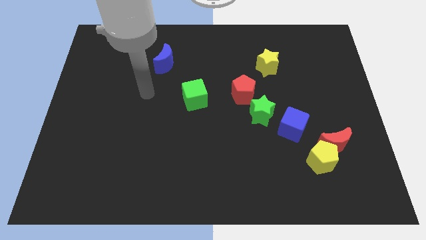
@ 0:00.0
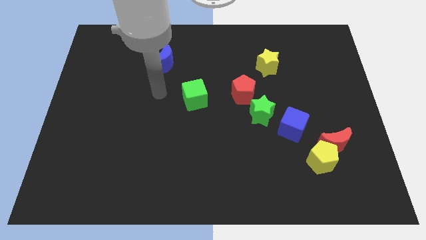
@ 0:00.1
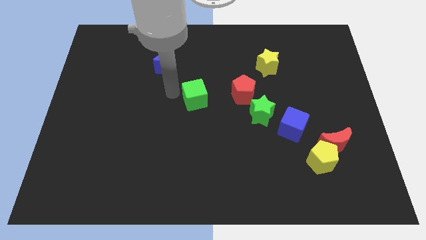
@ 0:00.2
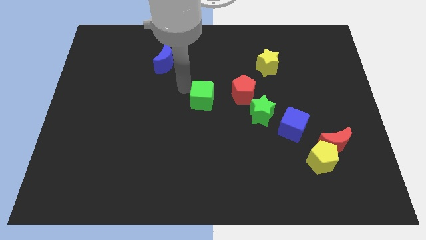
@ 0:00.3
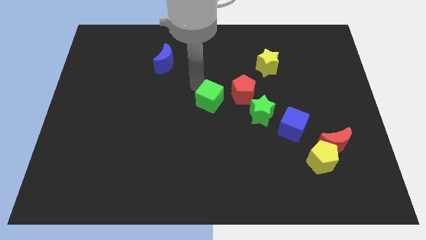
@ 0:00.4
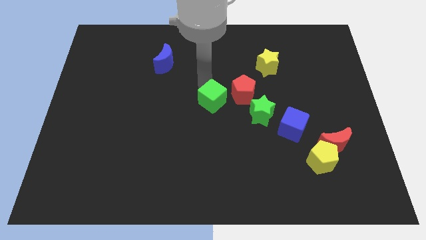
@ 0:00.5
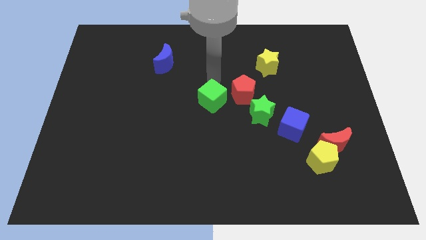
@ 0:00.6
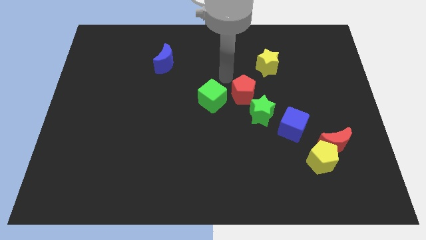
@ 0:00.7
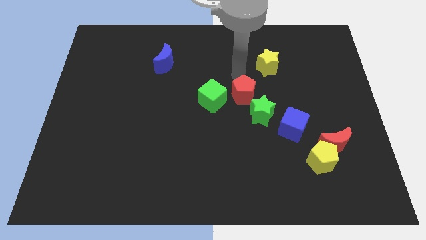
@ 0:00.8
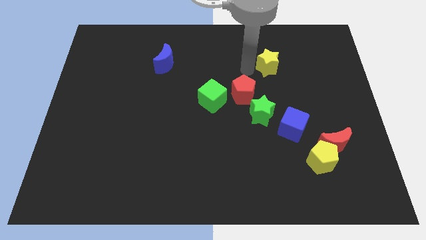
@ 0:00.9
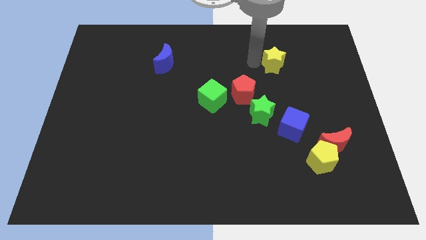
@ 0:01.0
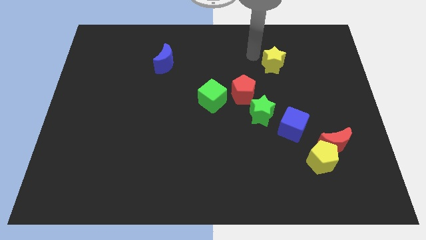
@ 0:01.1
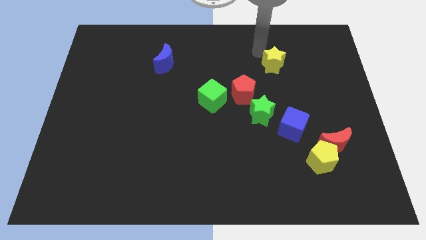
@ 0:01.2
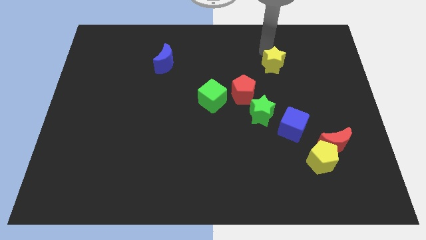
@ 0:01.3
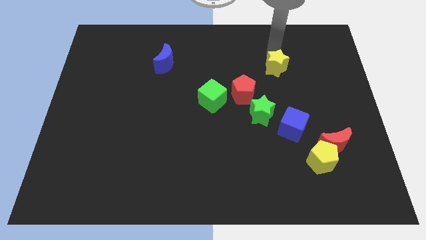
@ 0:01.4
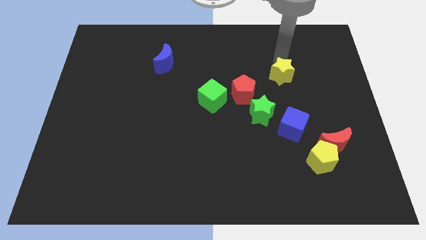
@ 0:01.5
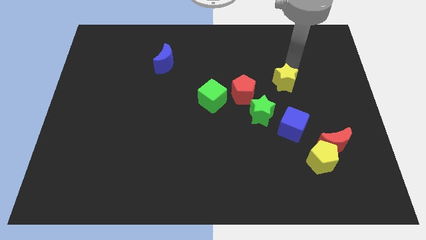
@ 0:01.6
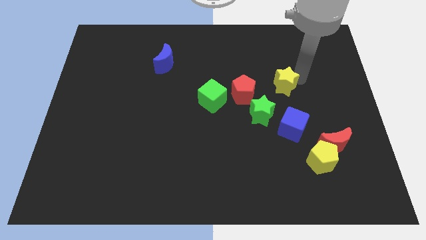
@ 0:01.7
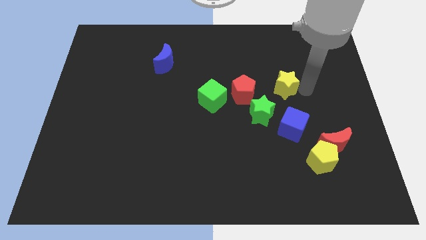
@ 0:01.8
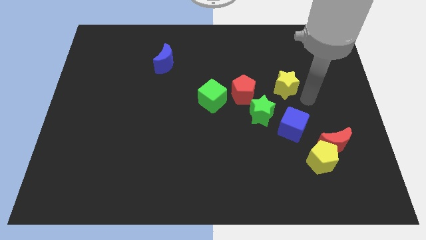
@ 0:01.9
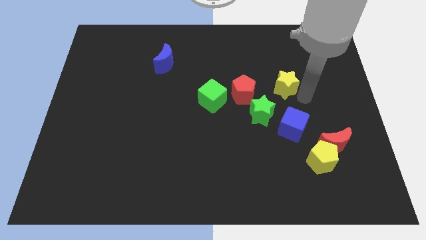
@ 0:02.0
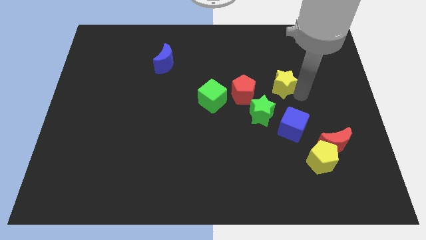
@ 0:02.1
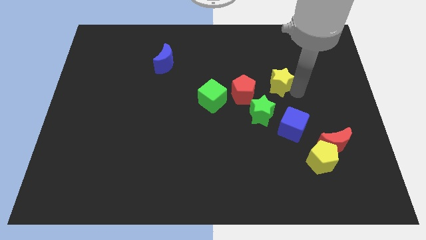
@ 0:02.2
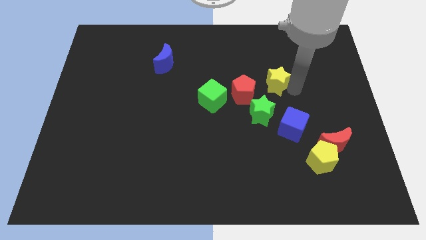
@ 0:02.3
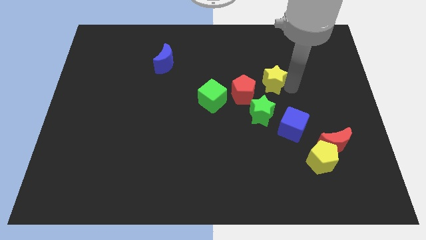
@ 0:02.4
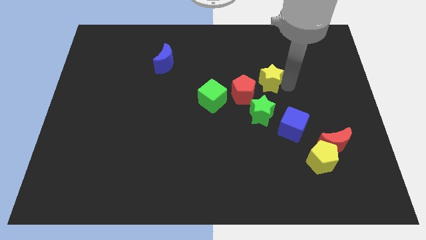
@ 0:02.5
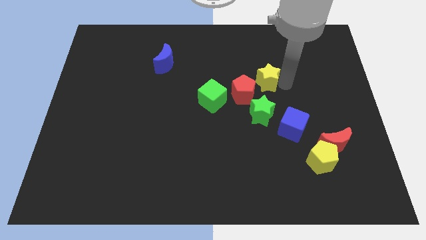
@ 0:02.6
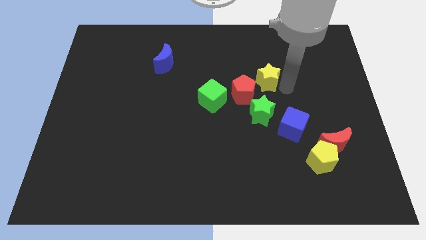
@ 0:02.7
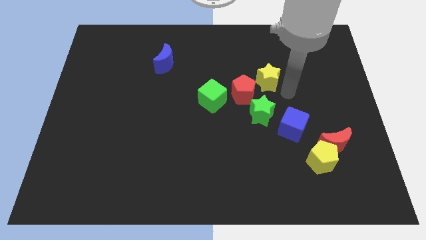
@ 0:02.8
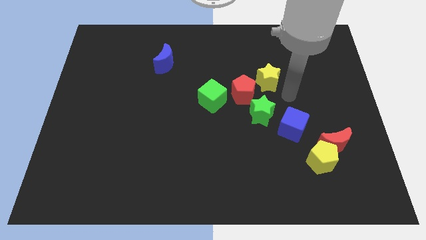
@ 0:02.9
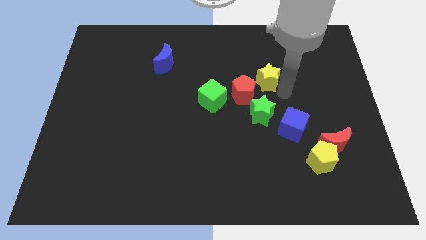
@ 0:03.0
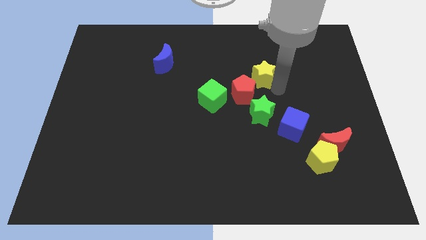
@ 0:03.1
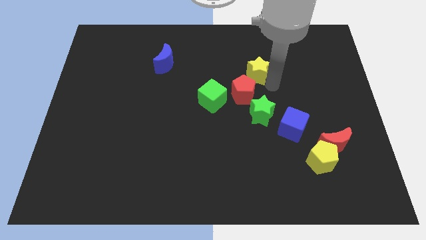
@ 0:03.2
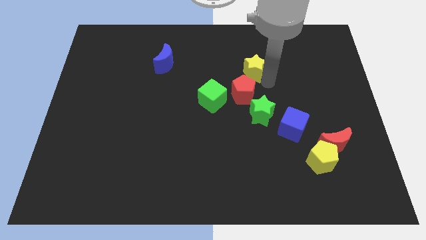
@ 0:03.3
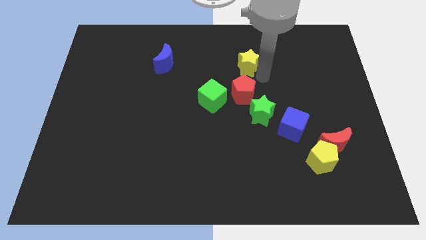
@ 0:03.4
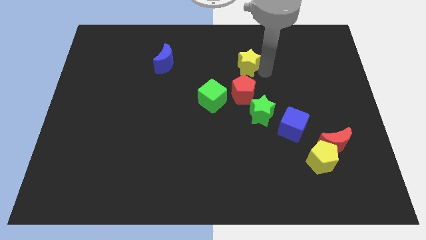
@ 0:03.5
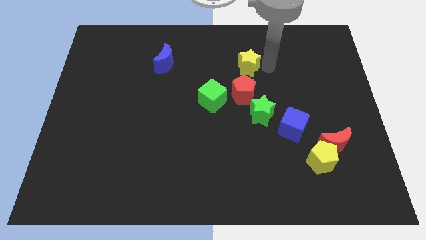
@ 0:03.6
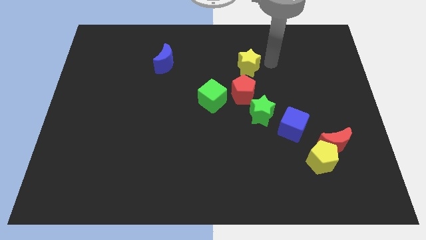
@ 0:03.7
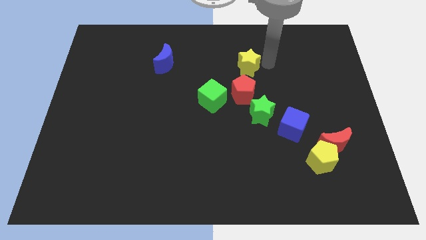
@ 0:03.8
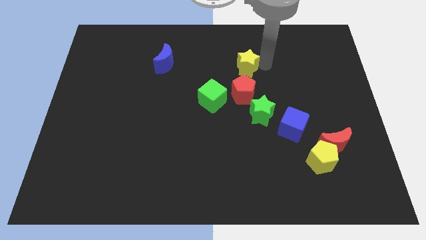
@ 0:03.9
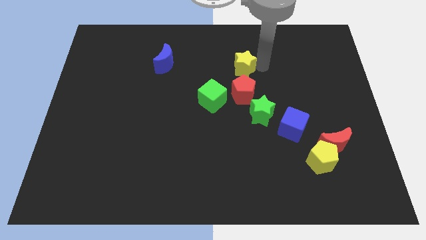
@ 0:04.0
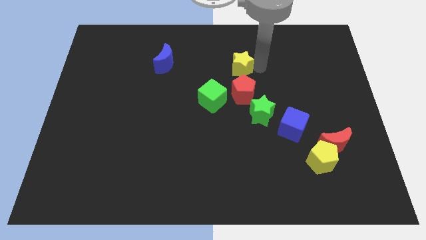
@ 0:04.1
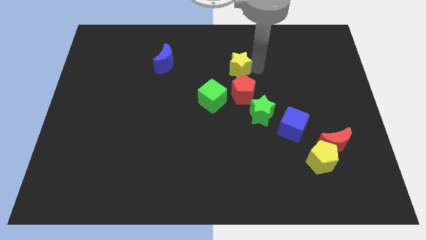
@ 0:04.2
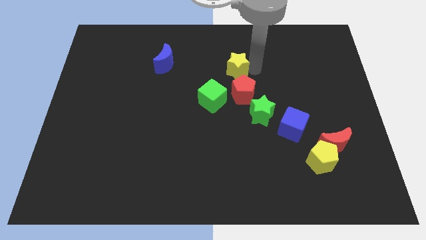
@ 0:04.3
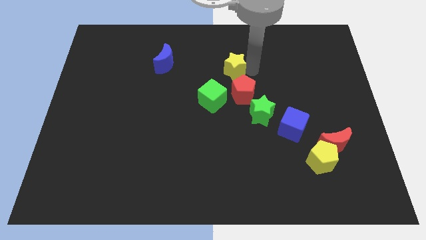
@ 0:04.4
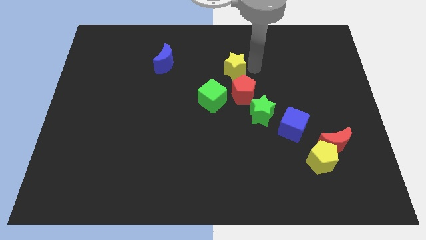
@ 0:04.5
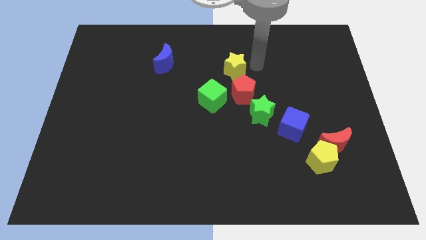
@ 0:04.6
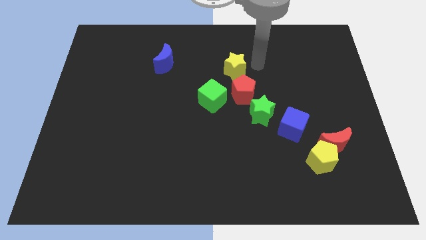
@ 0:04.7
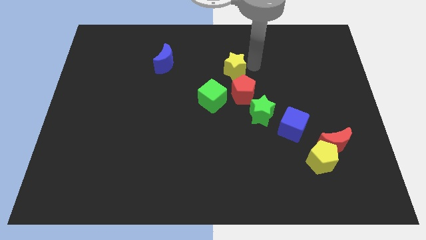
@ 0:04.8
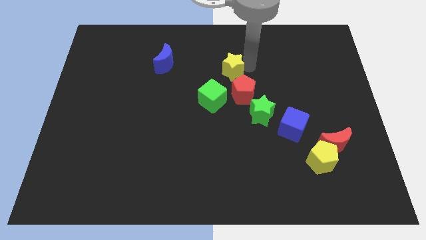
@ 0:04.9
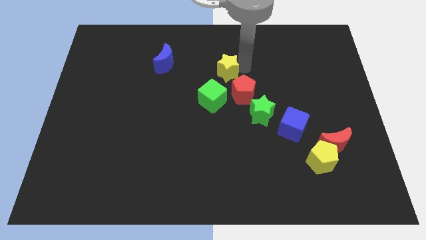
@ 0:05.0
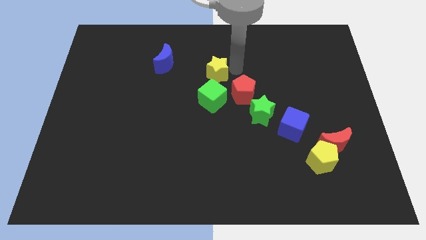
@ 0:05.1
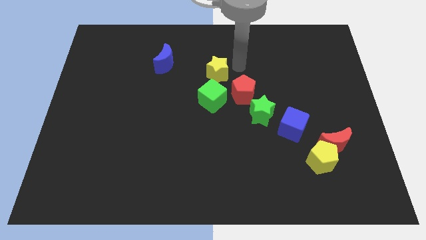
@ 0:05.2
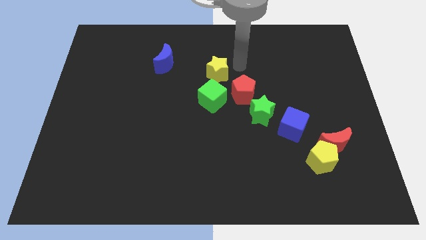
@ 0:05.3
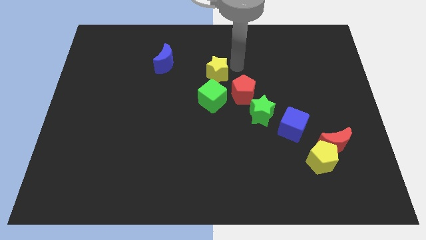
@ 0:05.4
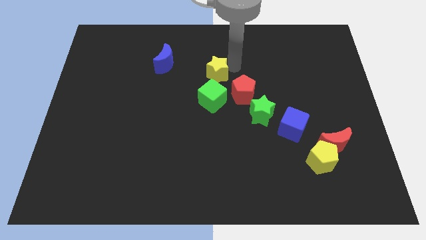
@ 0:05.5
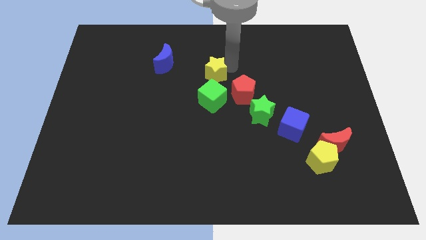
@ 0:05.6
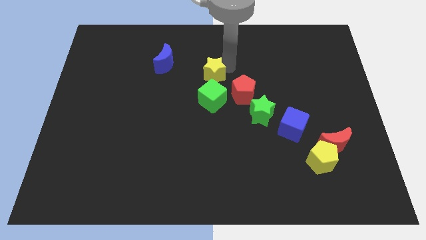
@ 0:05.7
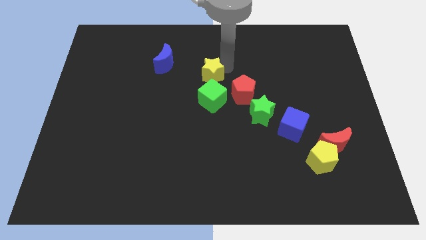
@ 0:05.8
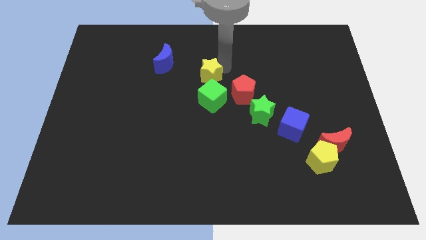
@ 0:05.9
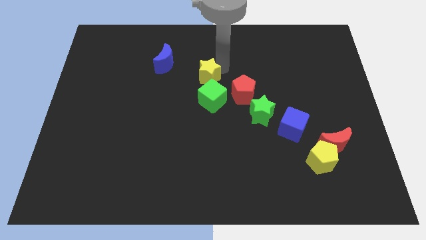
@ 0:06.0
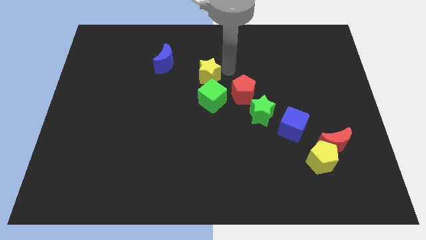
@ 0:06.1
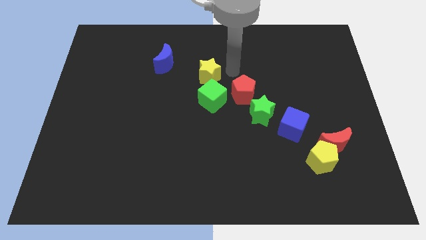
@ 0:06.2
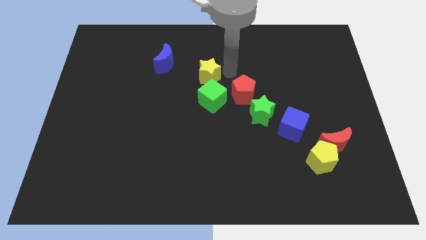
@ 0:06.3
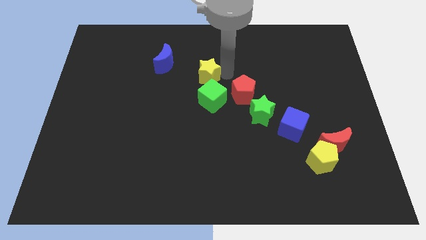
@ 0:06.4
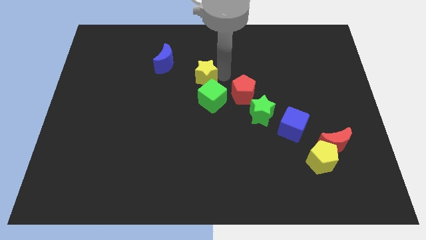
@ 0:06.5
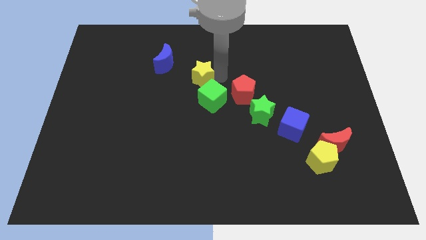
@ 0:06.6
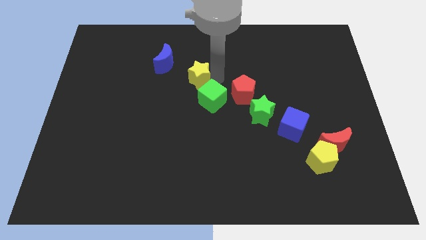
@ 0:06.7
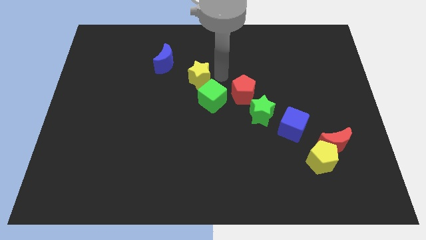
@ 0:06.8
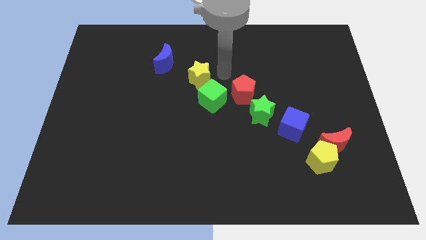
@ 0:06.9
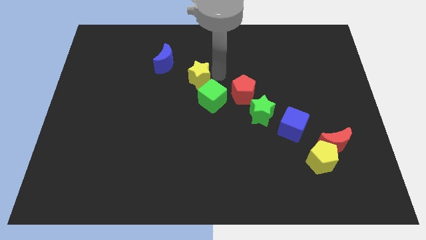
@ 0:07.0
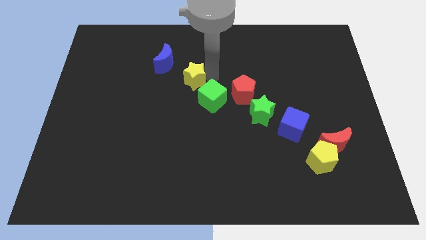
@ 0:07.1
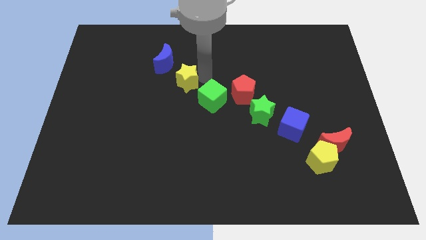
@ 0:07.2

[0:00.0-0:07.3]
move the yellow star to the left

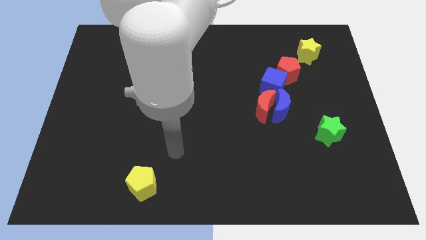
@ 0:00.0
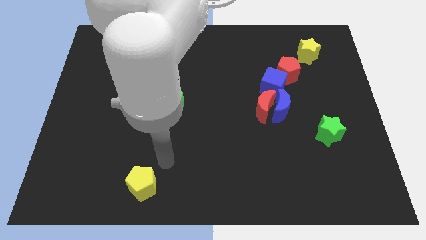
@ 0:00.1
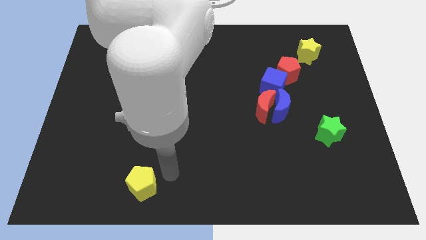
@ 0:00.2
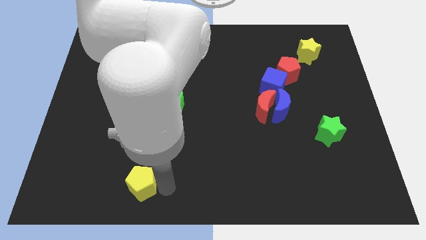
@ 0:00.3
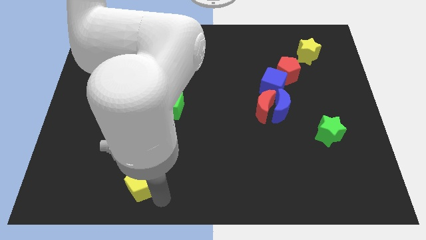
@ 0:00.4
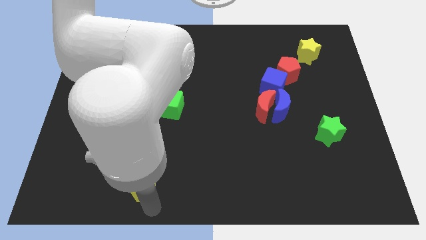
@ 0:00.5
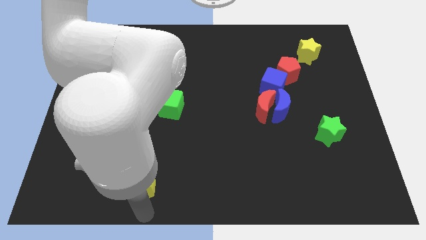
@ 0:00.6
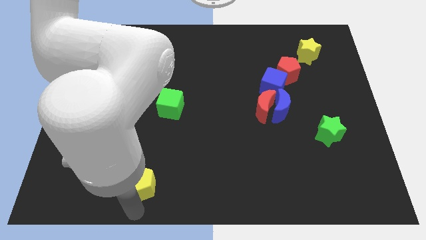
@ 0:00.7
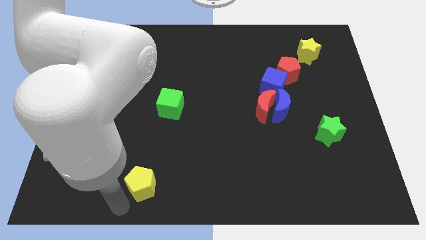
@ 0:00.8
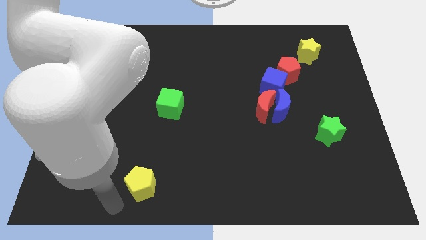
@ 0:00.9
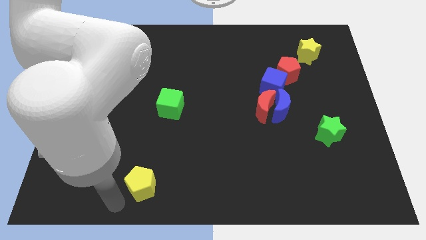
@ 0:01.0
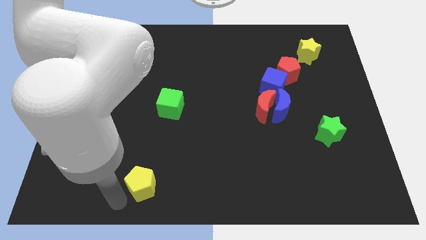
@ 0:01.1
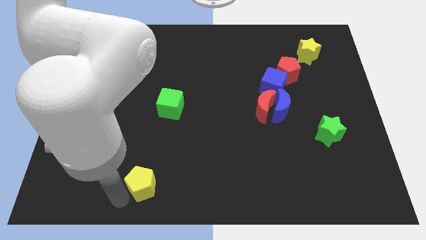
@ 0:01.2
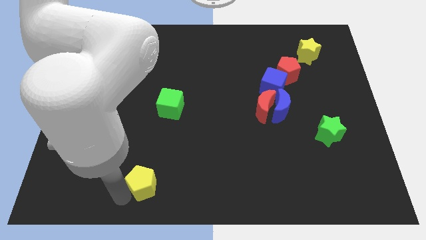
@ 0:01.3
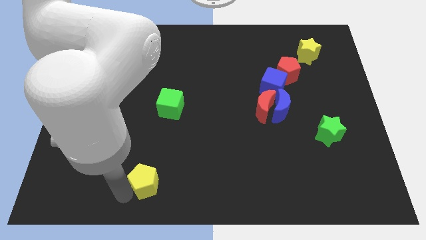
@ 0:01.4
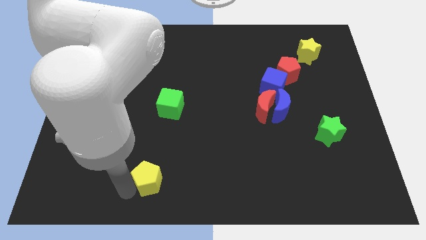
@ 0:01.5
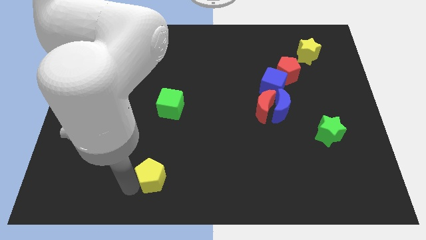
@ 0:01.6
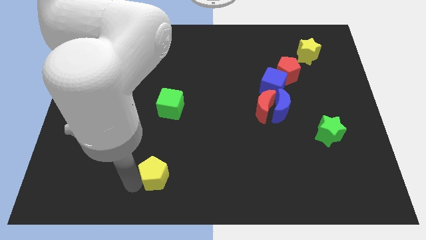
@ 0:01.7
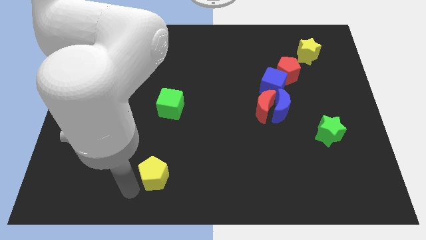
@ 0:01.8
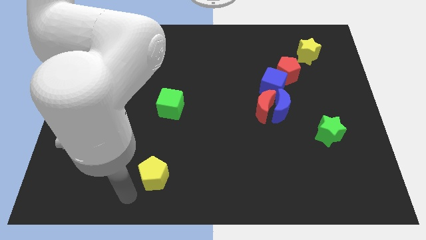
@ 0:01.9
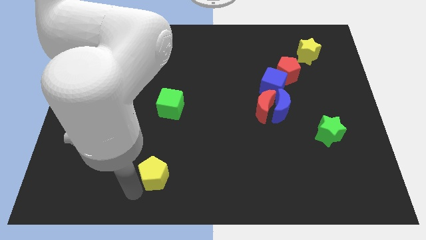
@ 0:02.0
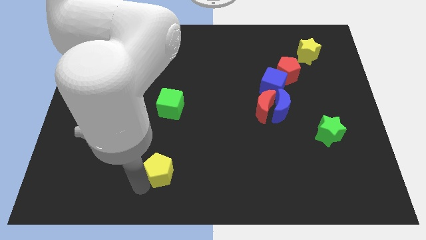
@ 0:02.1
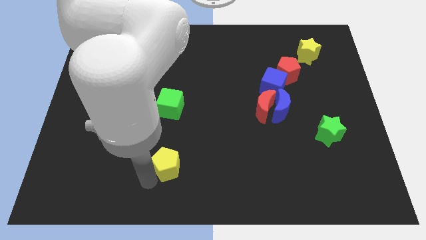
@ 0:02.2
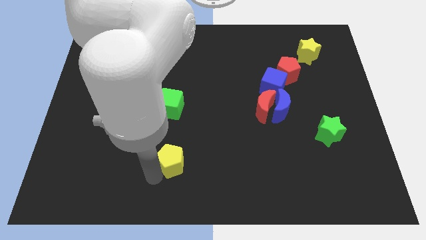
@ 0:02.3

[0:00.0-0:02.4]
slide the yellow pentagon slightly upwards and then right
